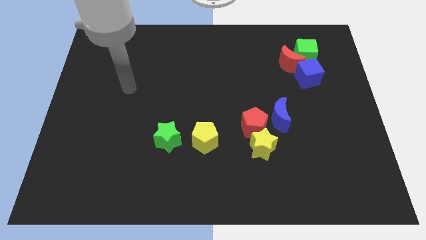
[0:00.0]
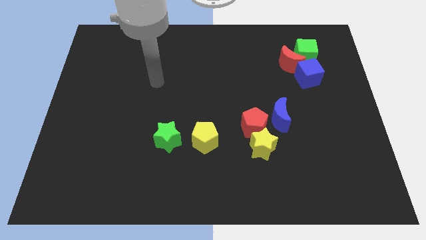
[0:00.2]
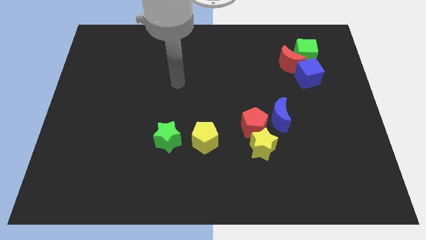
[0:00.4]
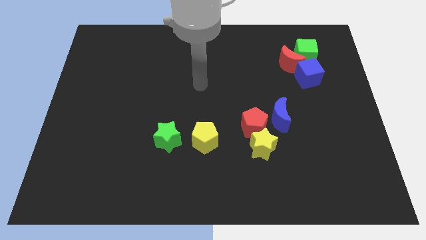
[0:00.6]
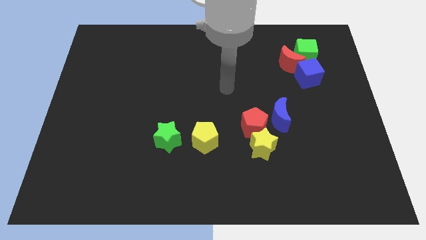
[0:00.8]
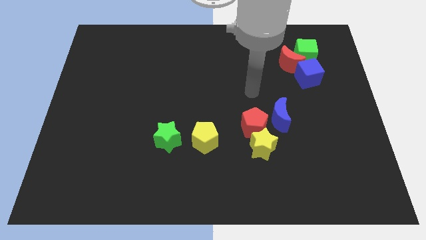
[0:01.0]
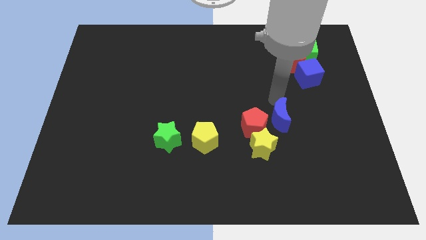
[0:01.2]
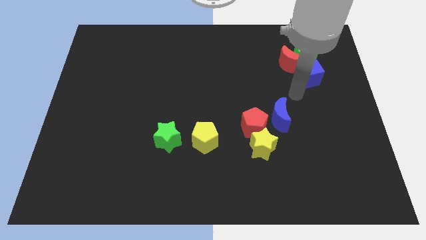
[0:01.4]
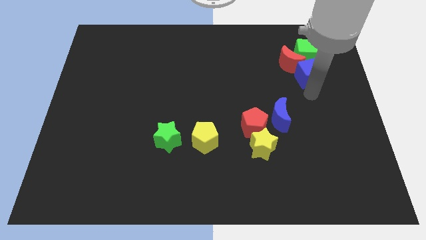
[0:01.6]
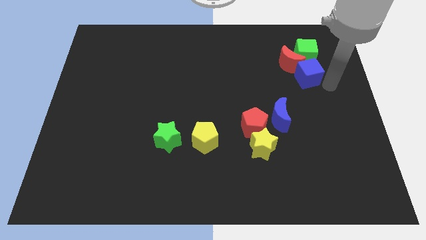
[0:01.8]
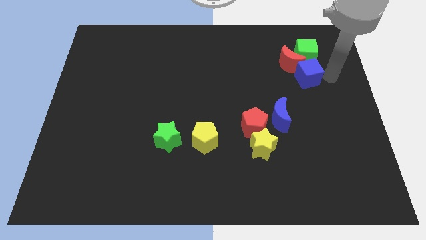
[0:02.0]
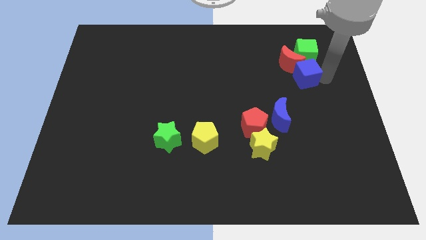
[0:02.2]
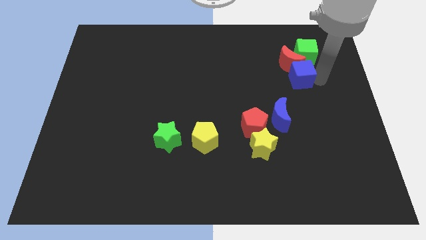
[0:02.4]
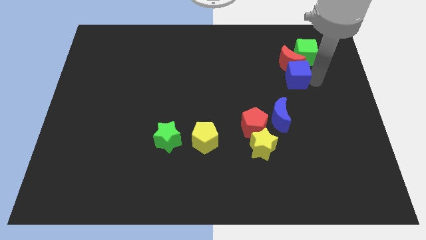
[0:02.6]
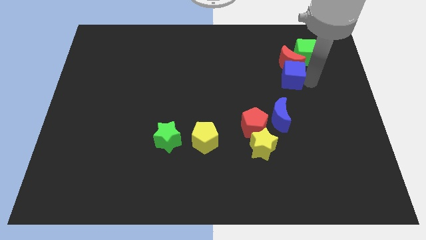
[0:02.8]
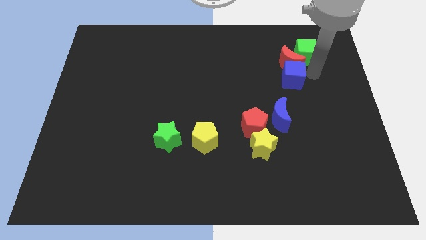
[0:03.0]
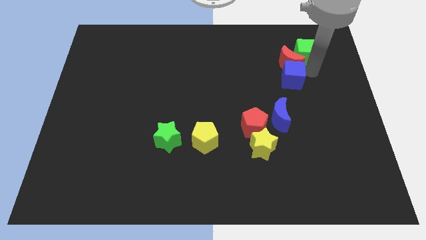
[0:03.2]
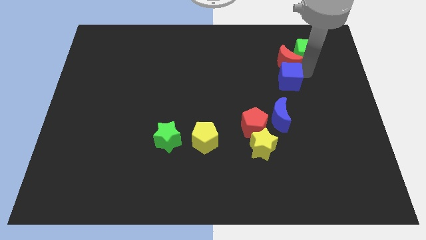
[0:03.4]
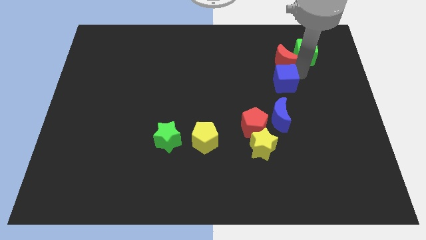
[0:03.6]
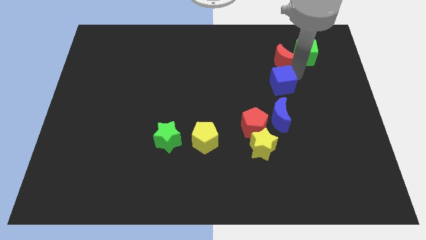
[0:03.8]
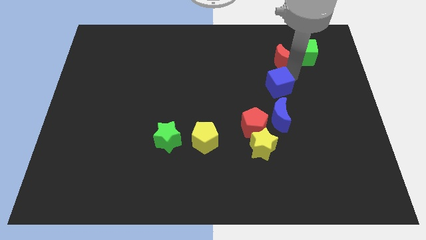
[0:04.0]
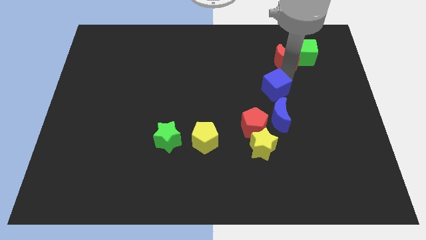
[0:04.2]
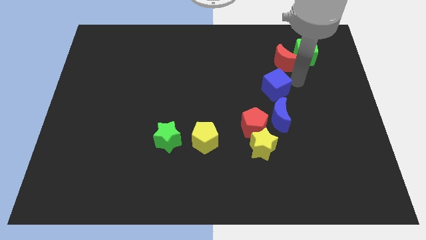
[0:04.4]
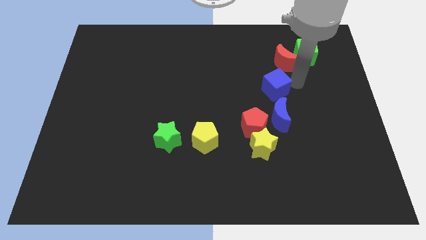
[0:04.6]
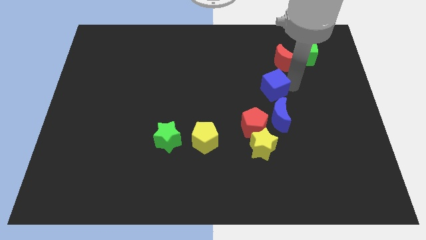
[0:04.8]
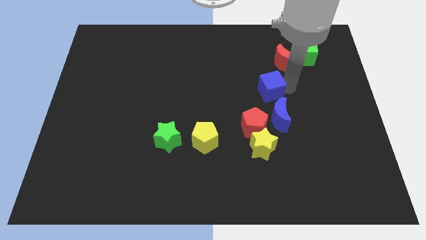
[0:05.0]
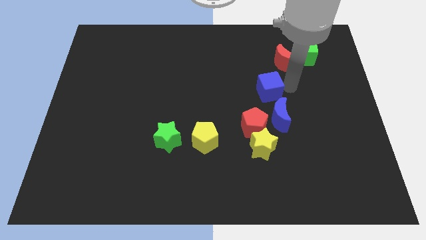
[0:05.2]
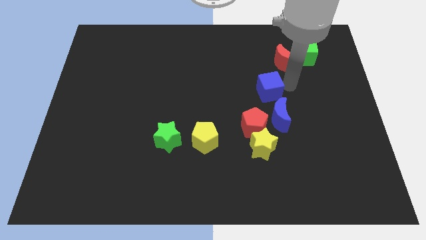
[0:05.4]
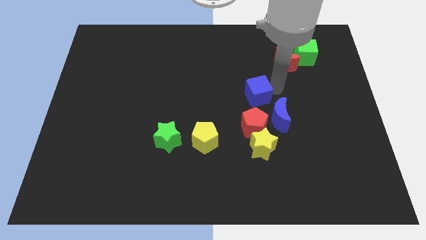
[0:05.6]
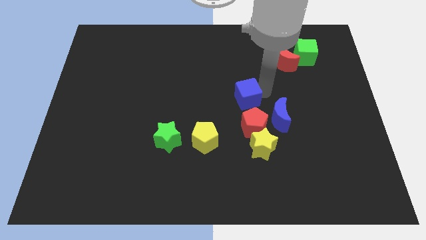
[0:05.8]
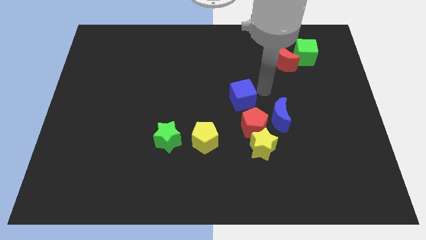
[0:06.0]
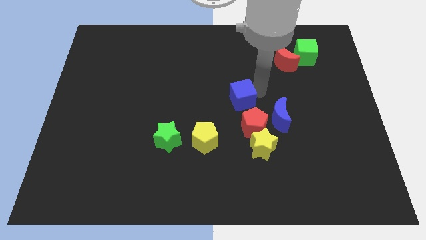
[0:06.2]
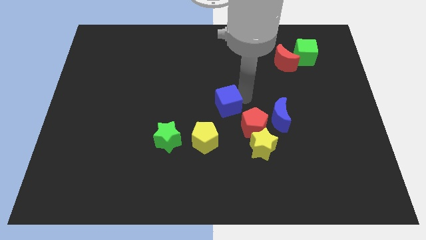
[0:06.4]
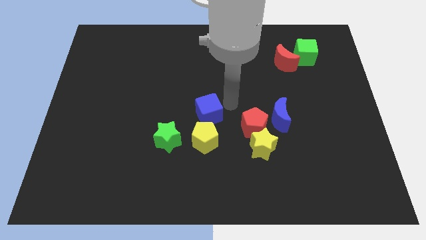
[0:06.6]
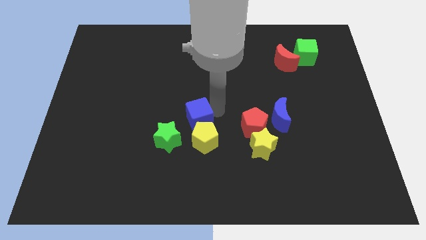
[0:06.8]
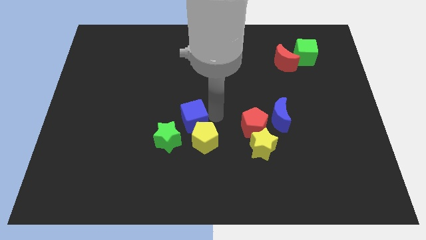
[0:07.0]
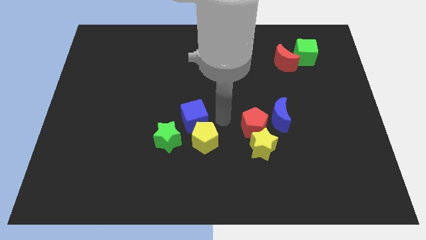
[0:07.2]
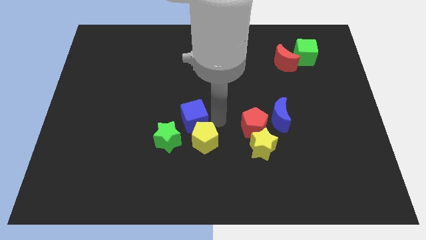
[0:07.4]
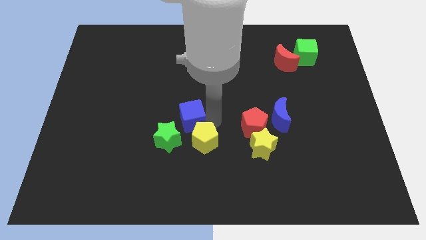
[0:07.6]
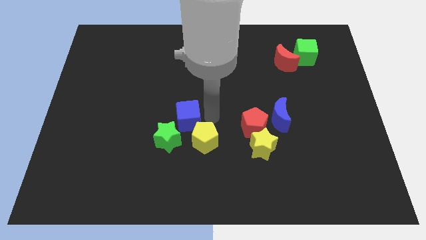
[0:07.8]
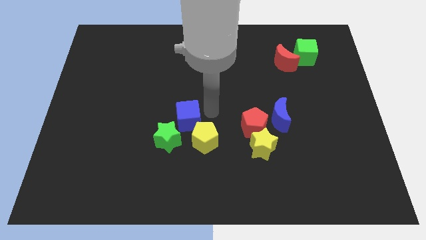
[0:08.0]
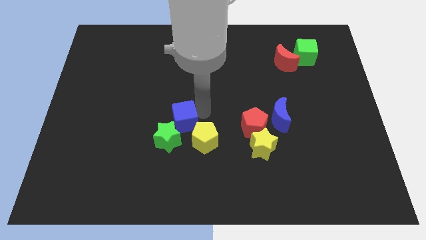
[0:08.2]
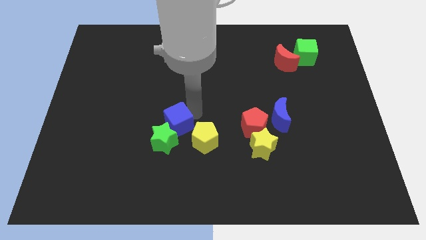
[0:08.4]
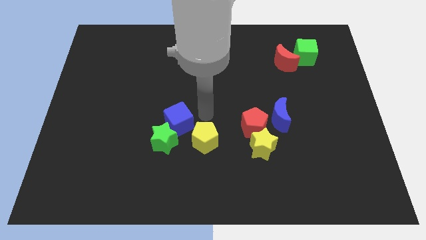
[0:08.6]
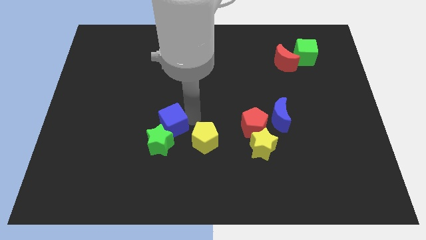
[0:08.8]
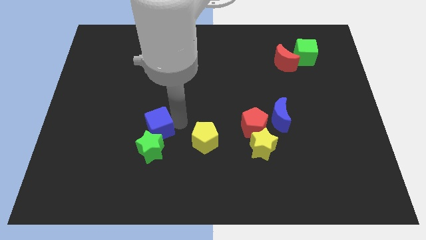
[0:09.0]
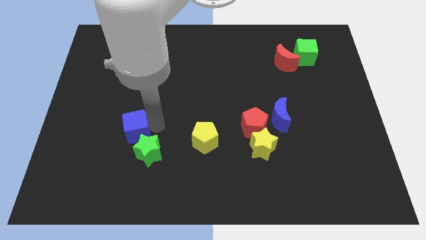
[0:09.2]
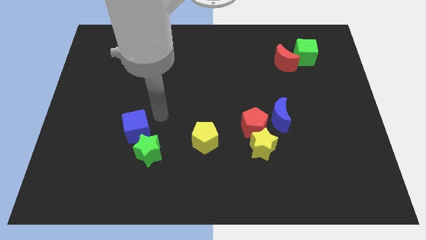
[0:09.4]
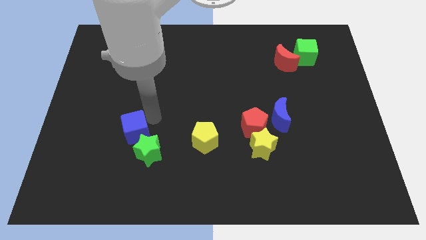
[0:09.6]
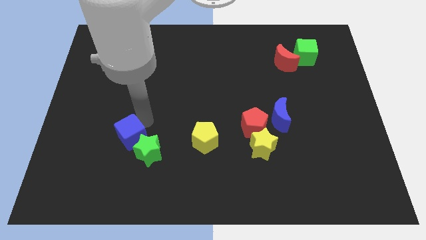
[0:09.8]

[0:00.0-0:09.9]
move the blue cube to the left of the green star

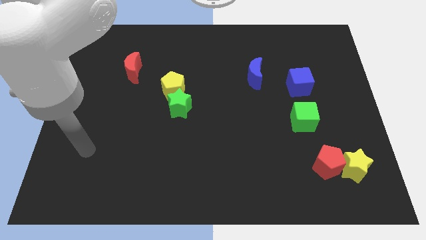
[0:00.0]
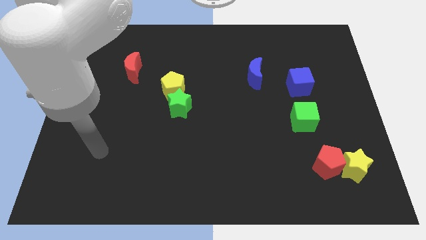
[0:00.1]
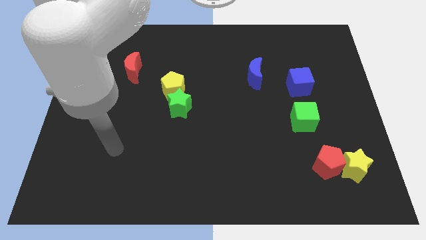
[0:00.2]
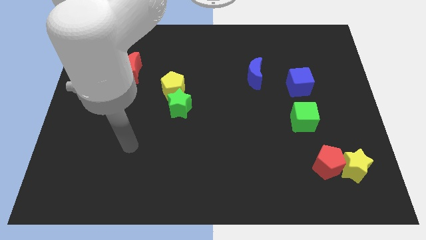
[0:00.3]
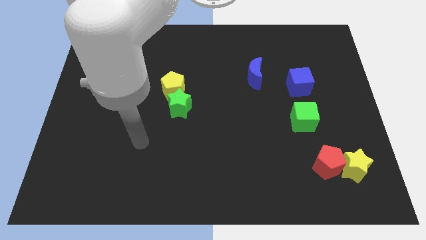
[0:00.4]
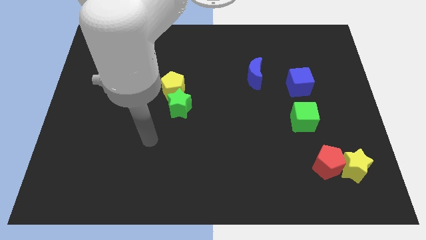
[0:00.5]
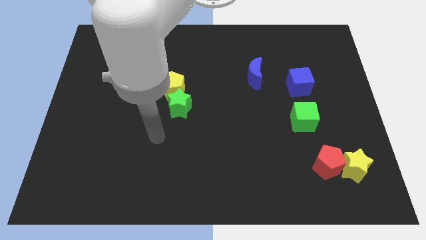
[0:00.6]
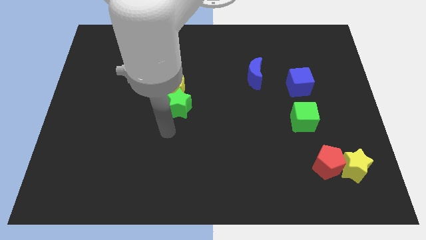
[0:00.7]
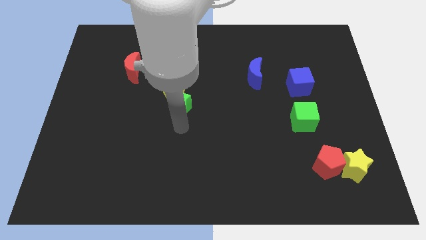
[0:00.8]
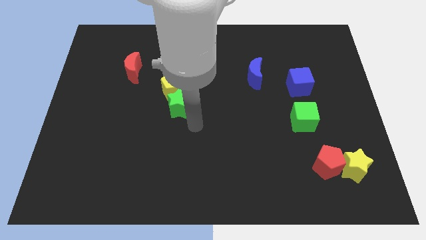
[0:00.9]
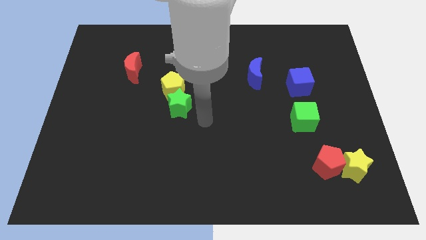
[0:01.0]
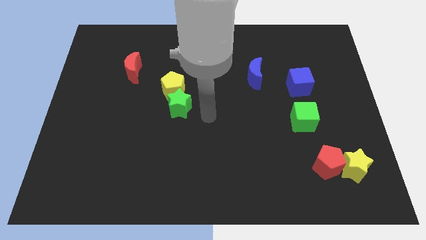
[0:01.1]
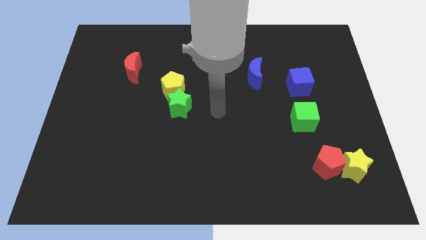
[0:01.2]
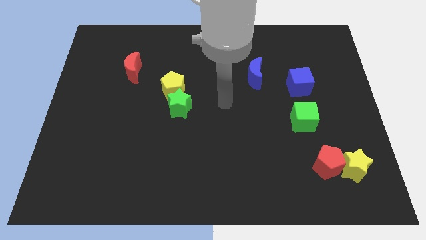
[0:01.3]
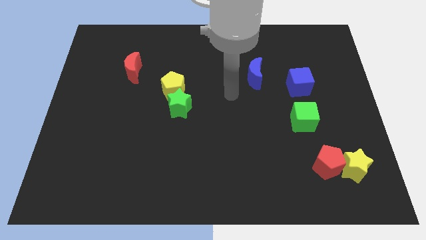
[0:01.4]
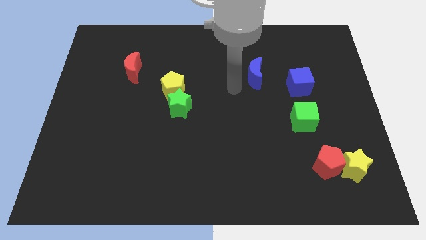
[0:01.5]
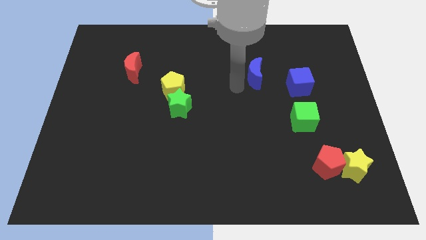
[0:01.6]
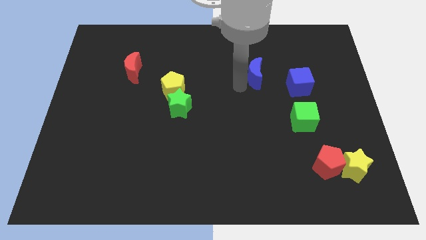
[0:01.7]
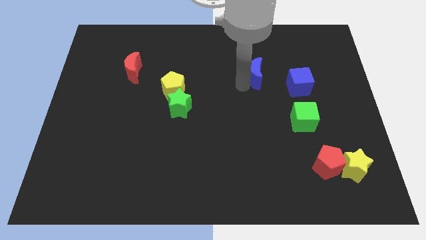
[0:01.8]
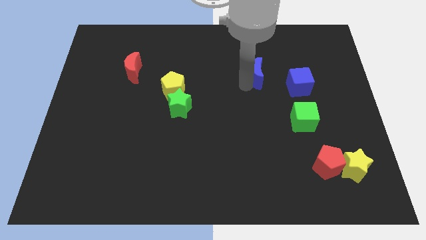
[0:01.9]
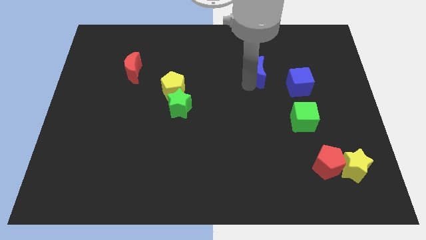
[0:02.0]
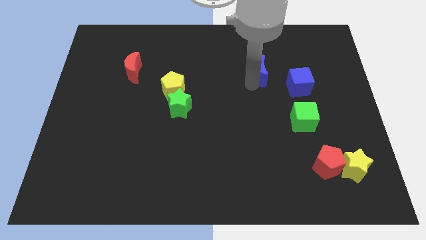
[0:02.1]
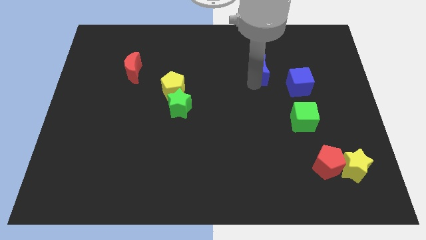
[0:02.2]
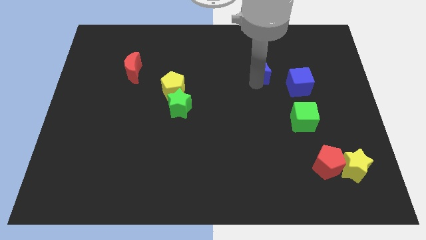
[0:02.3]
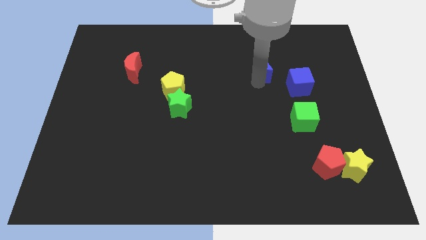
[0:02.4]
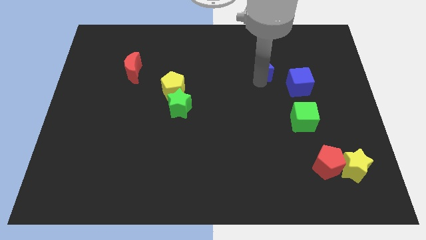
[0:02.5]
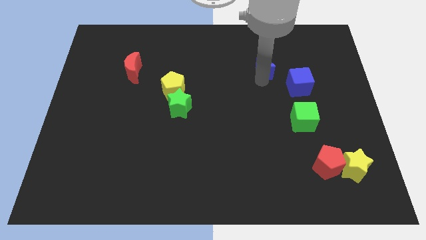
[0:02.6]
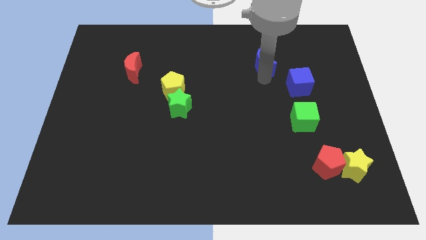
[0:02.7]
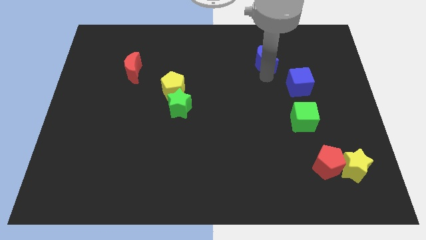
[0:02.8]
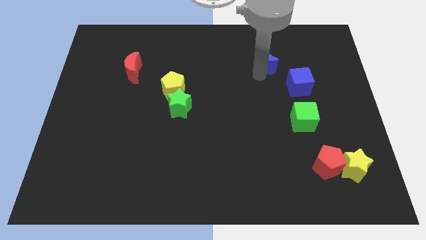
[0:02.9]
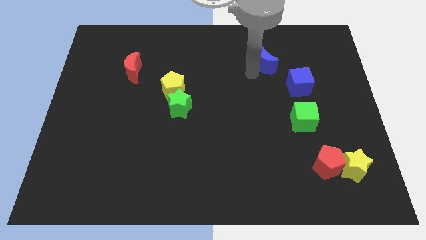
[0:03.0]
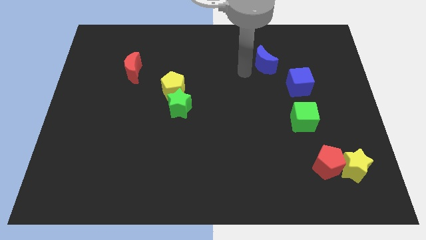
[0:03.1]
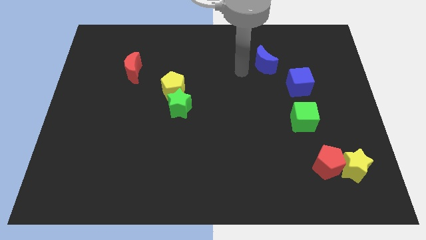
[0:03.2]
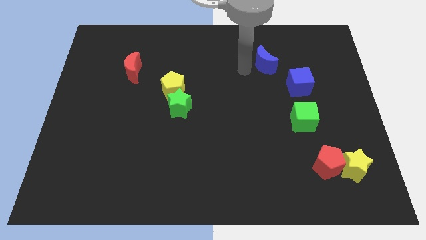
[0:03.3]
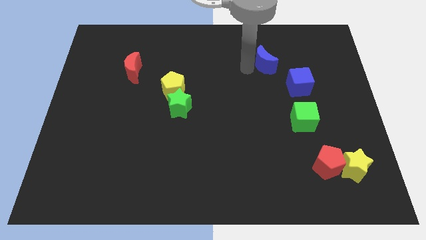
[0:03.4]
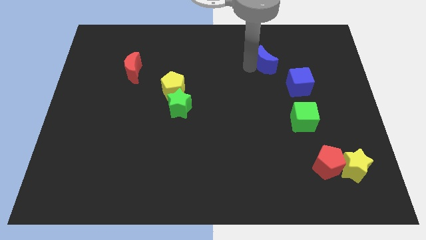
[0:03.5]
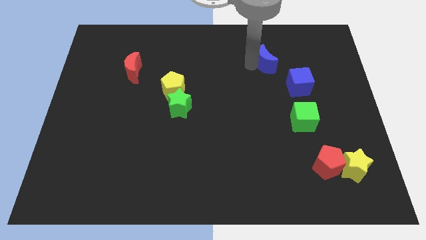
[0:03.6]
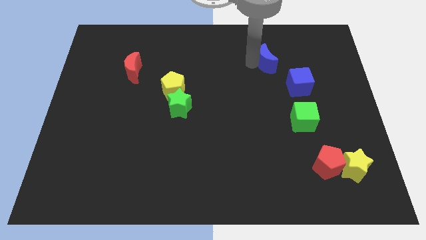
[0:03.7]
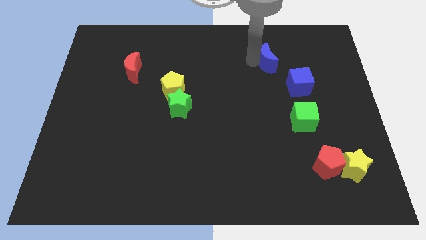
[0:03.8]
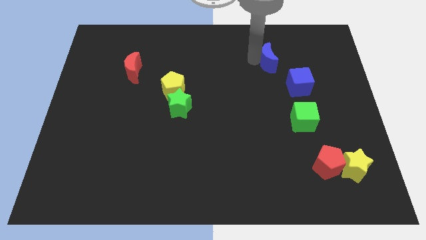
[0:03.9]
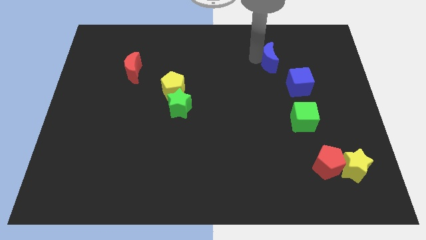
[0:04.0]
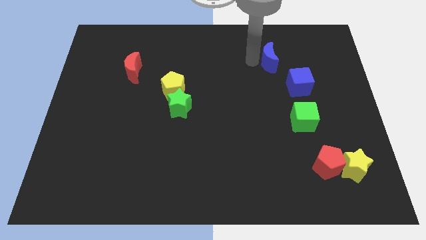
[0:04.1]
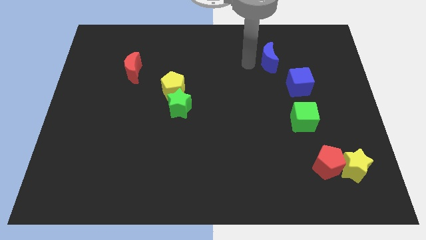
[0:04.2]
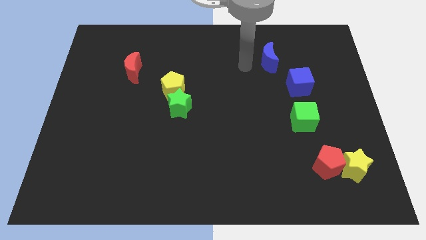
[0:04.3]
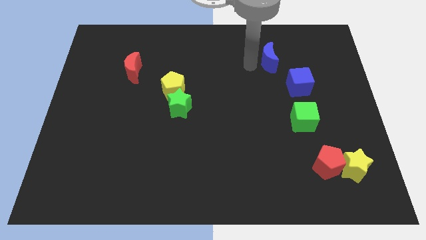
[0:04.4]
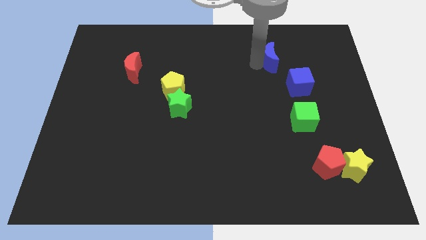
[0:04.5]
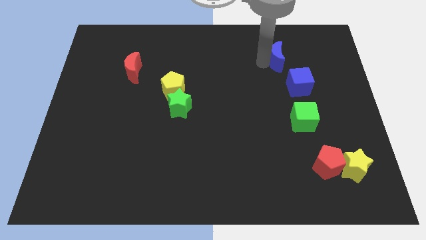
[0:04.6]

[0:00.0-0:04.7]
slide the blue moon to the top side of the blue cube
